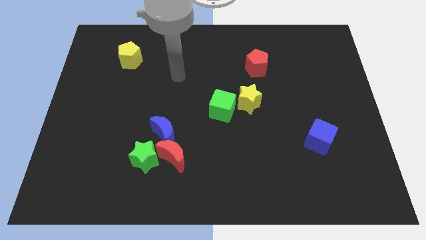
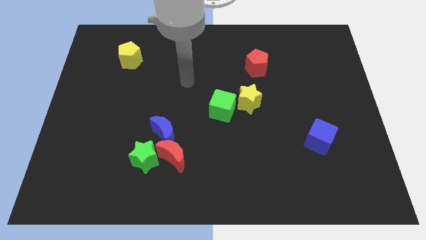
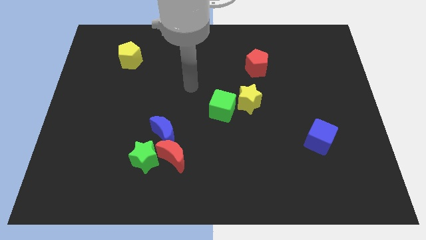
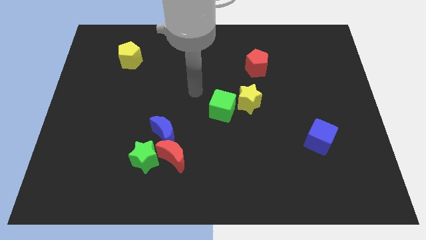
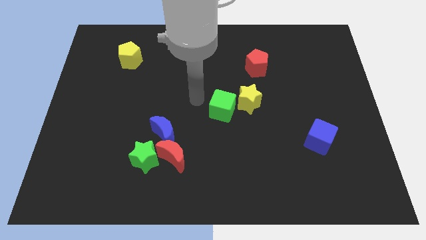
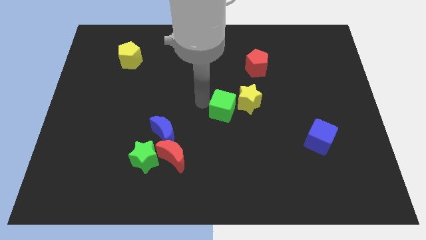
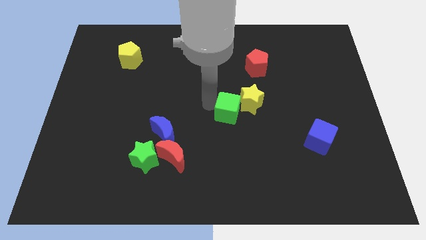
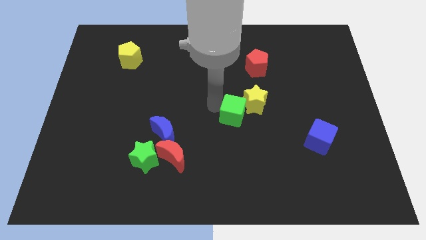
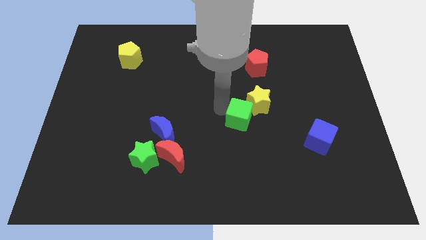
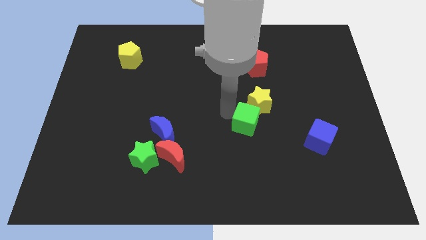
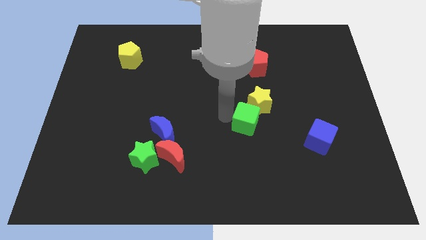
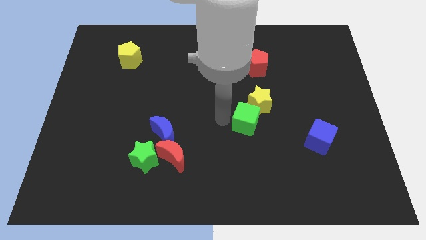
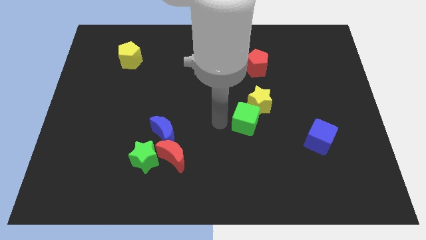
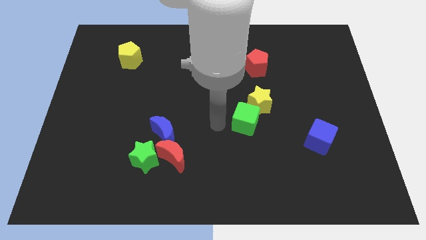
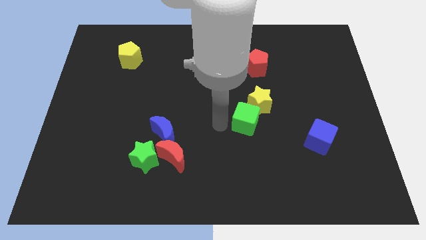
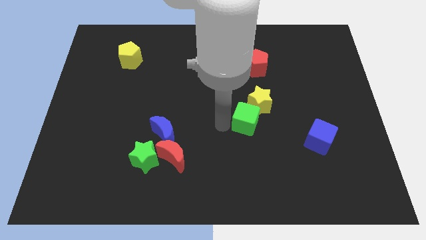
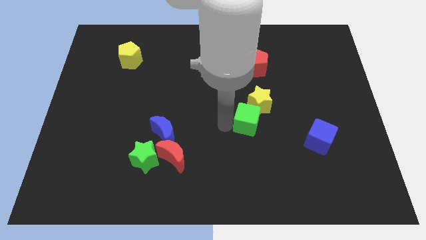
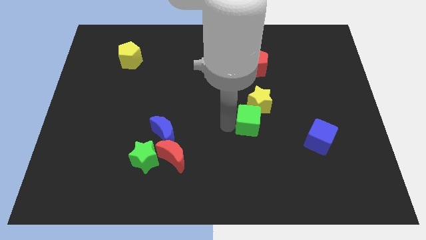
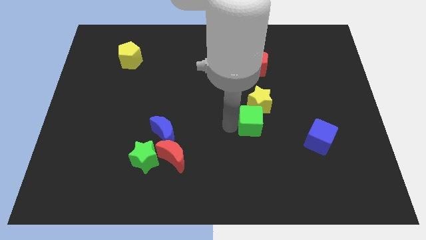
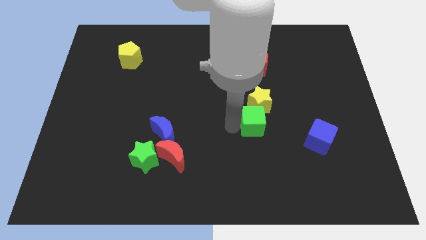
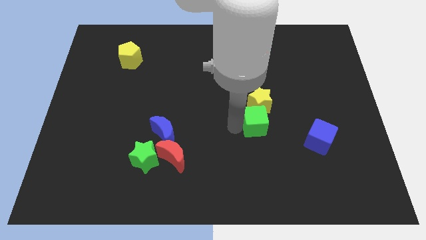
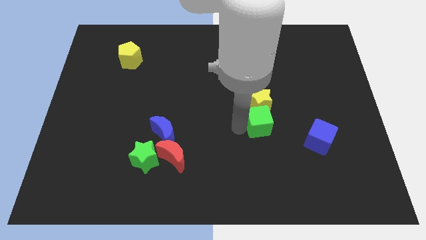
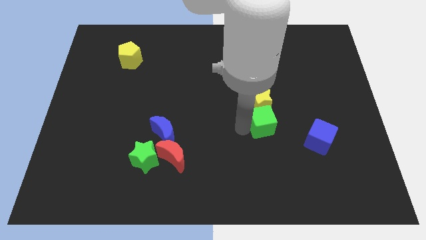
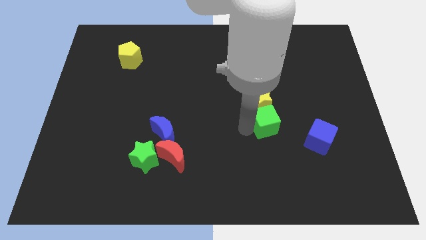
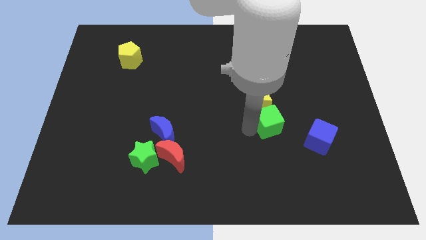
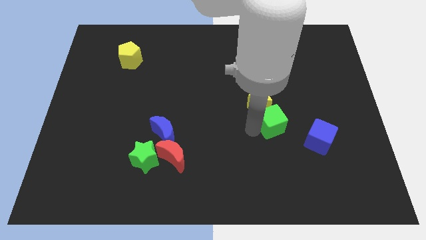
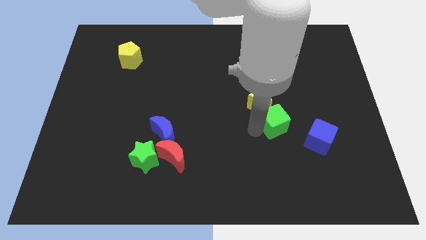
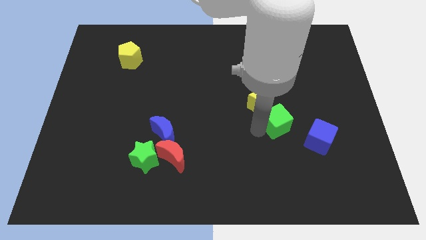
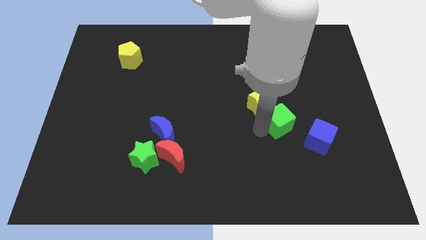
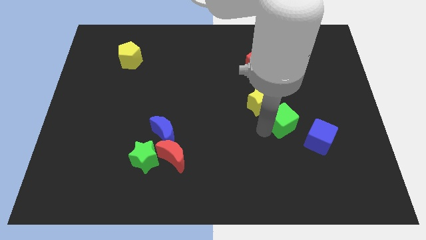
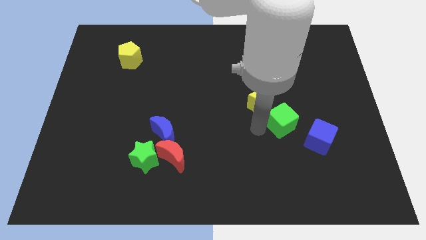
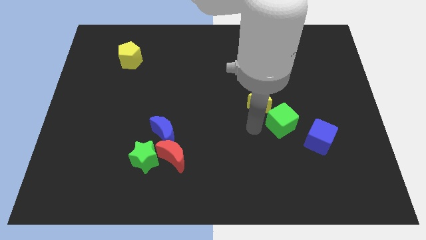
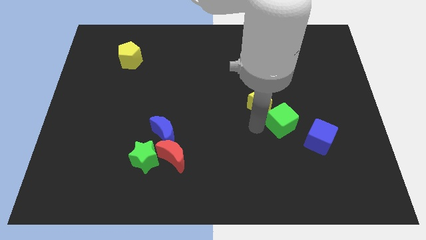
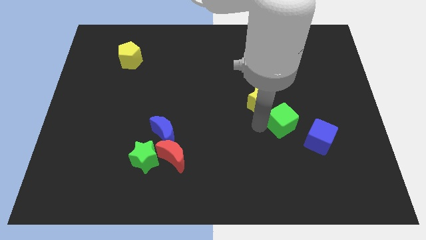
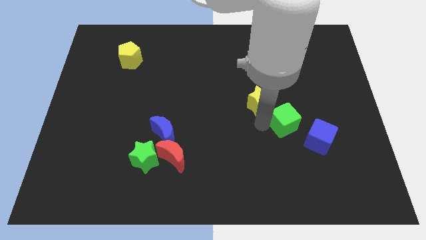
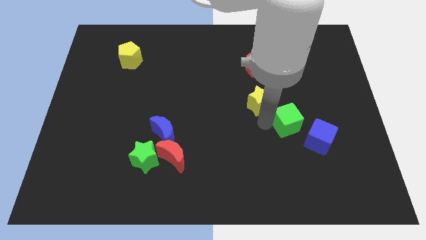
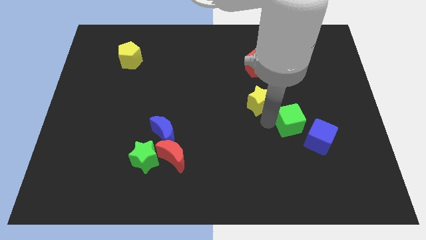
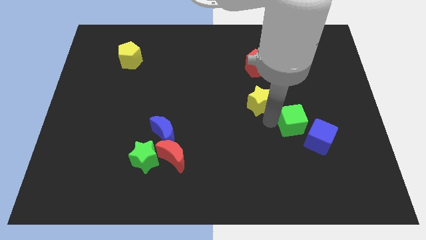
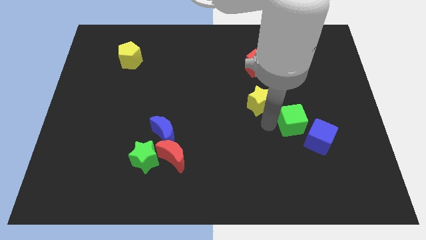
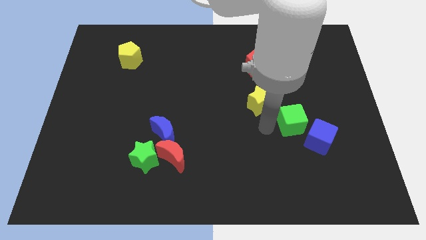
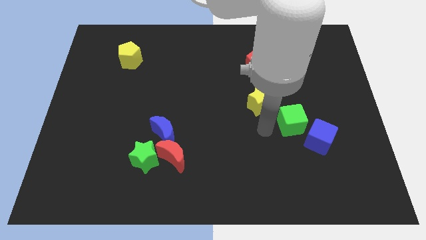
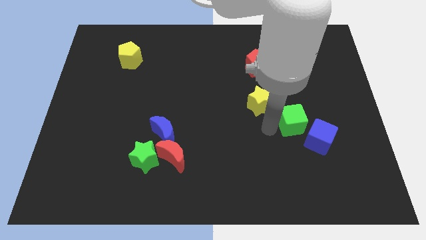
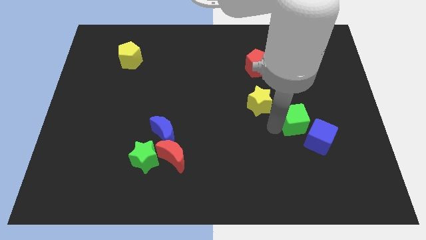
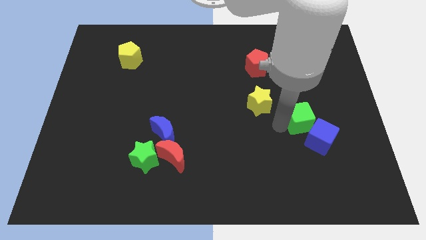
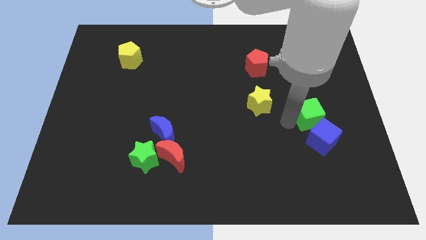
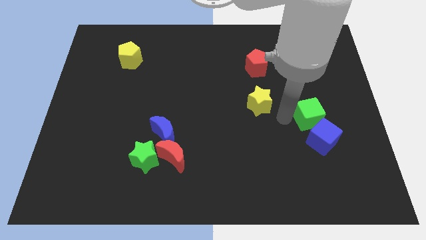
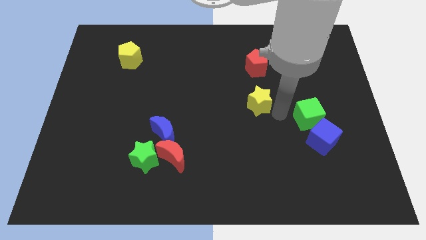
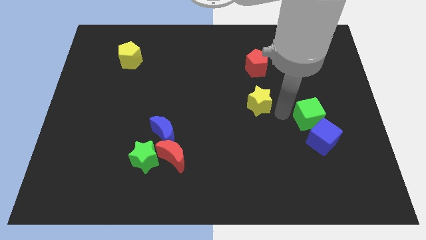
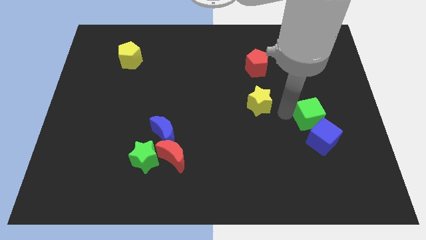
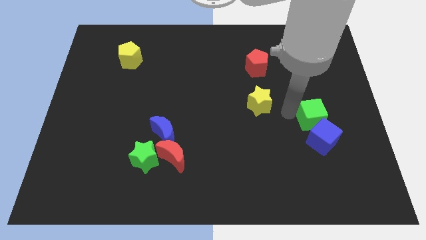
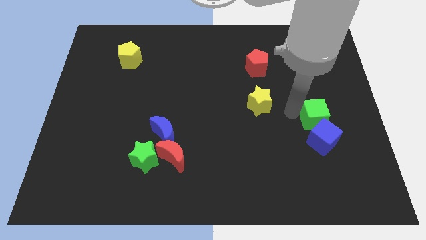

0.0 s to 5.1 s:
push the green cube diagonally up and to the right of the blue cube

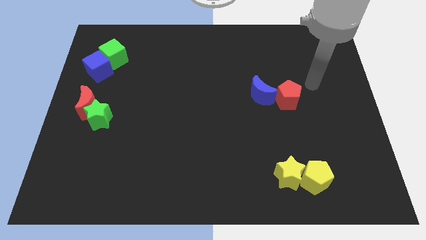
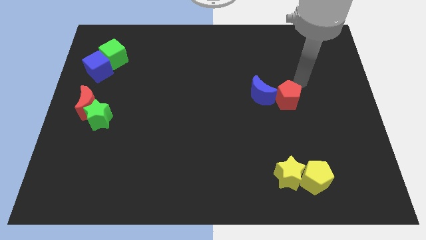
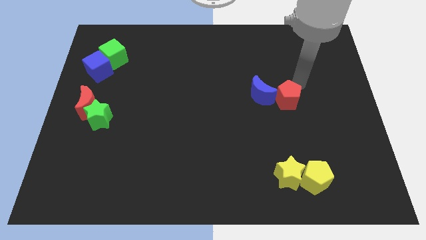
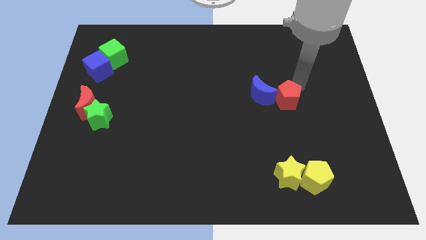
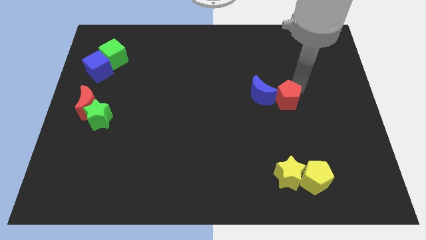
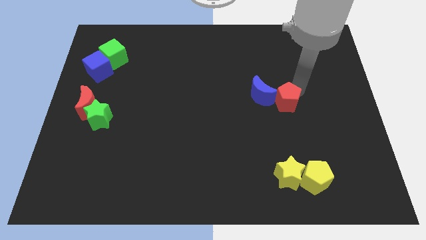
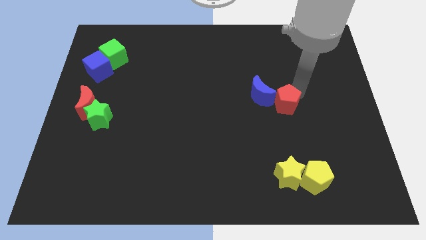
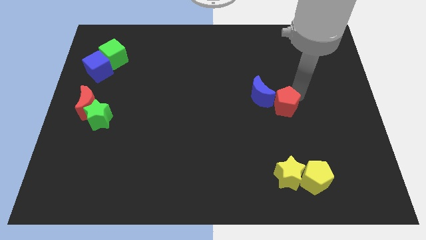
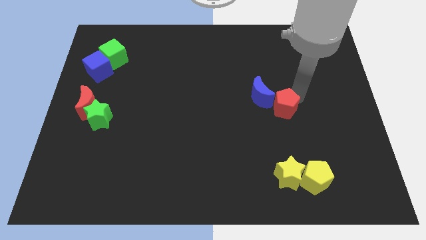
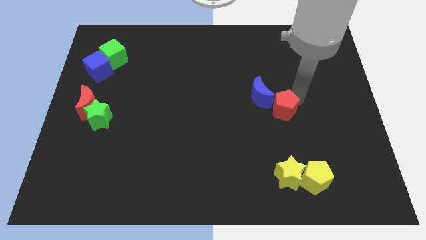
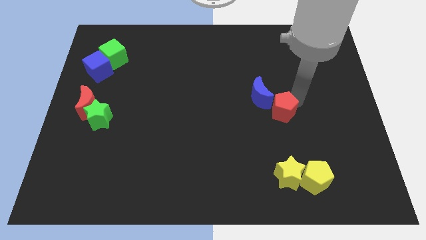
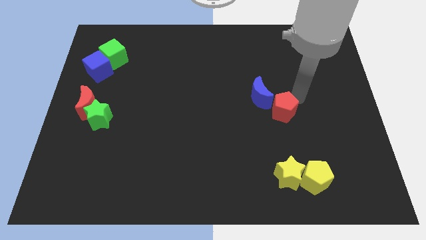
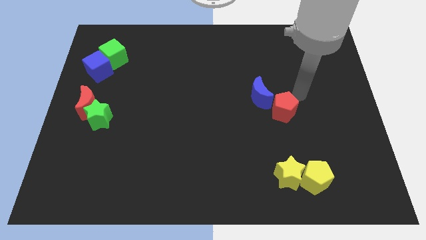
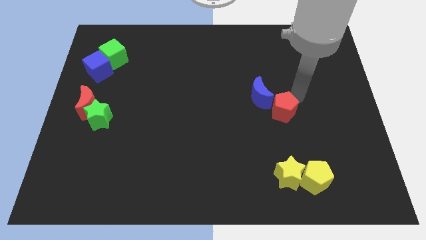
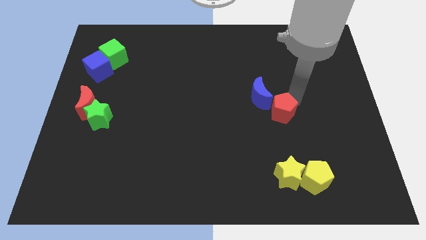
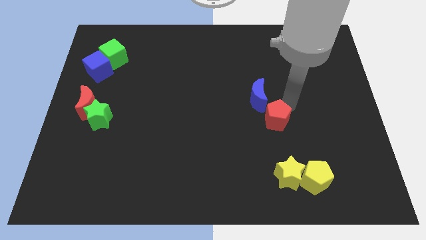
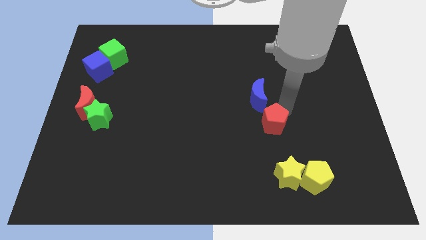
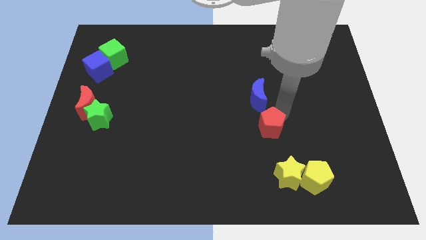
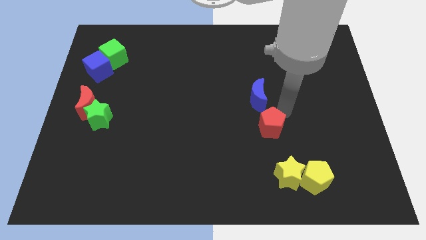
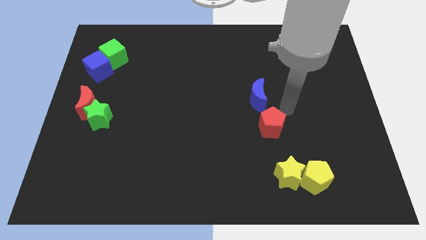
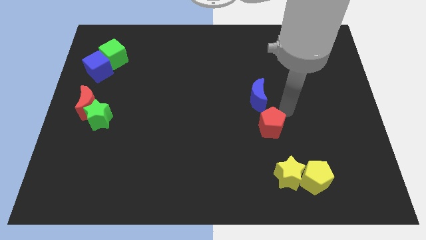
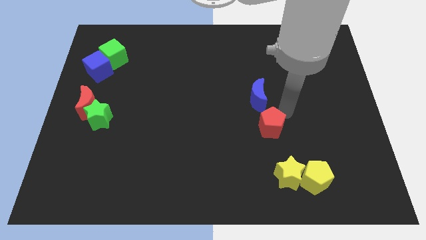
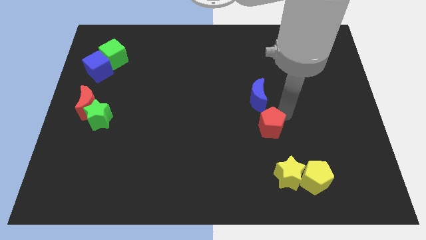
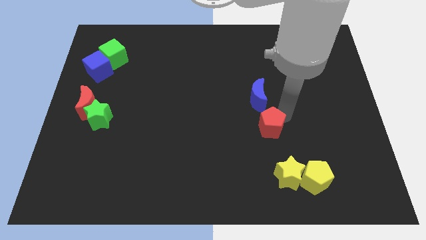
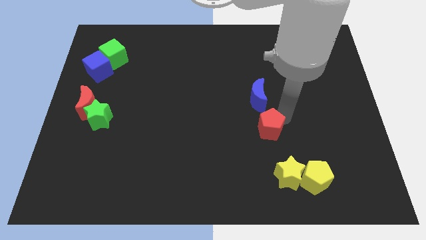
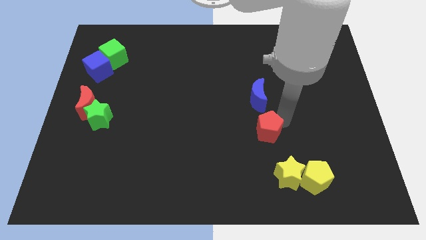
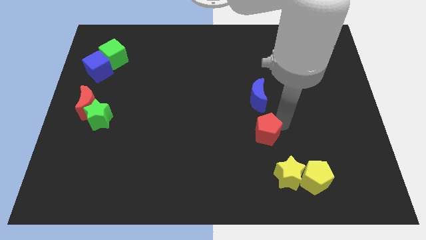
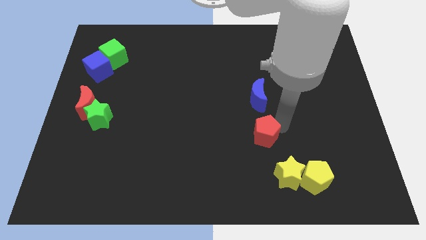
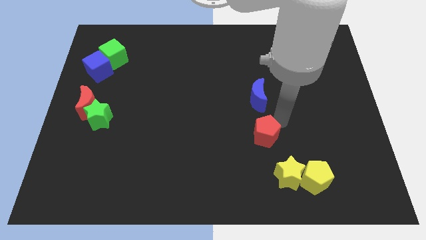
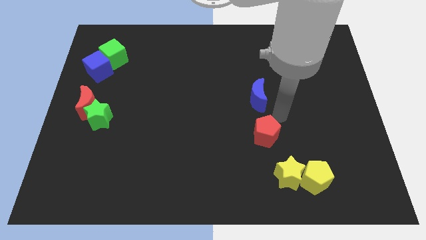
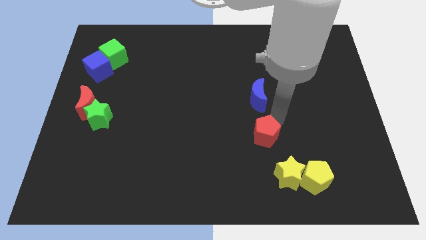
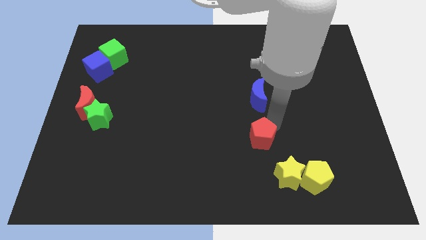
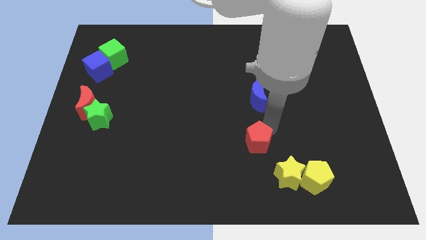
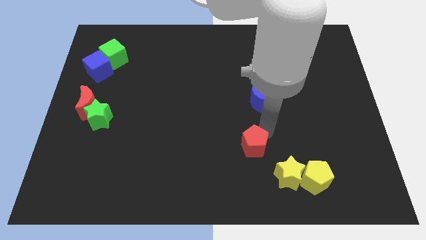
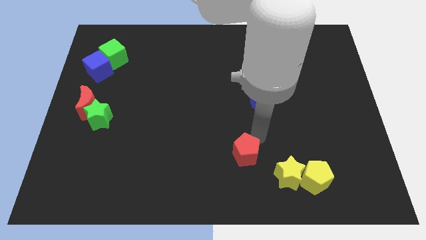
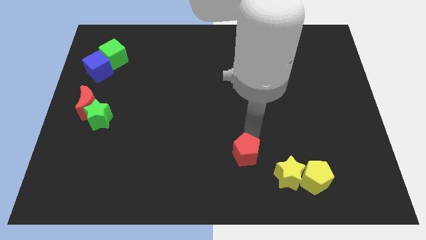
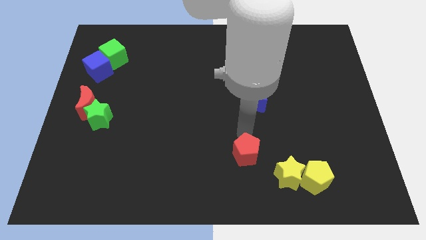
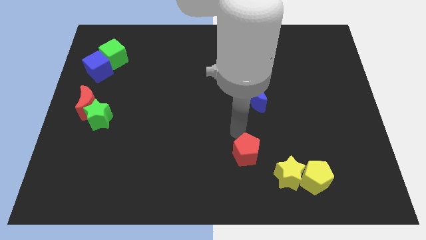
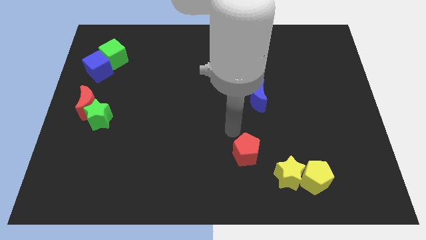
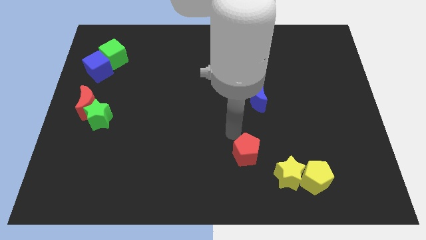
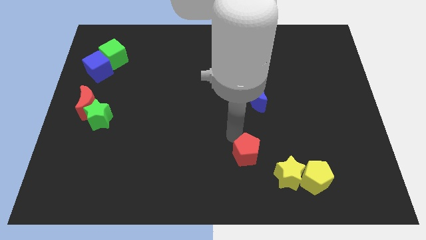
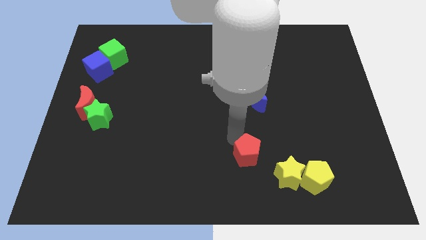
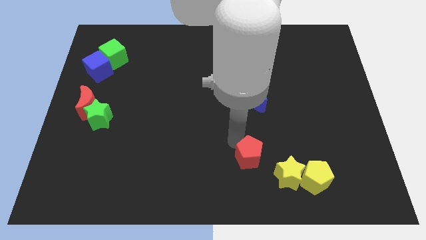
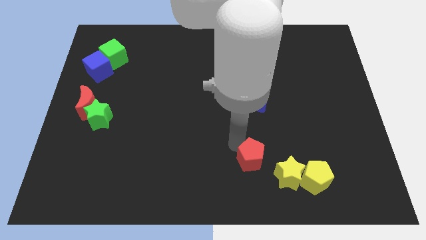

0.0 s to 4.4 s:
slide the red pentagon just left of the yellow pentagon
